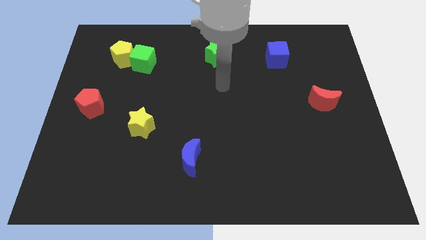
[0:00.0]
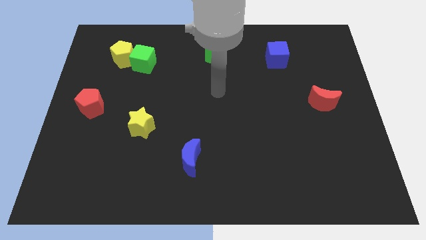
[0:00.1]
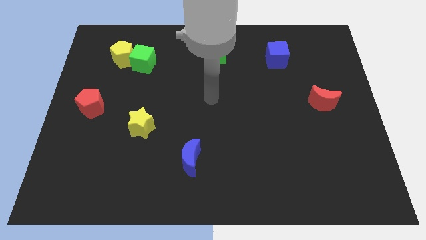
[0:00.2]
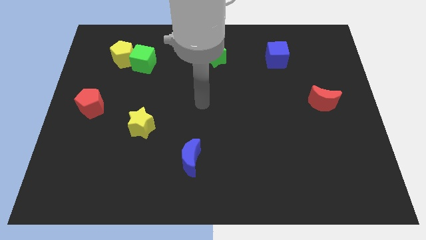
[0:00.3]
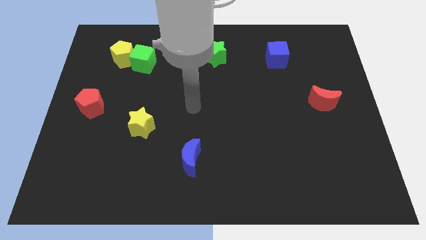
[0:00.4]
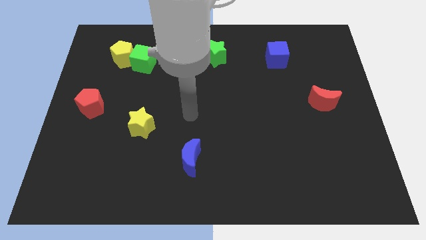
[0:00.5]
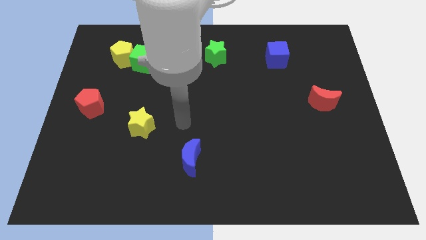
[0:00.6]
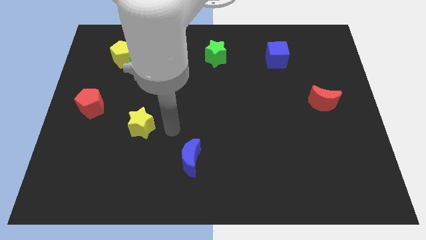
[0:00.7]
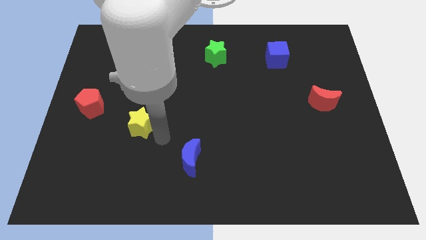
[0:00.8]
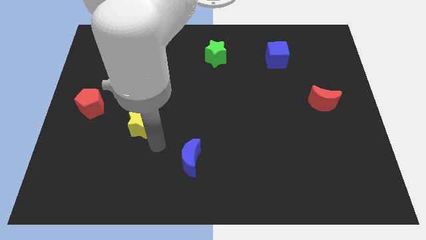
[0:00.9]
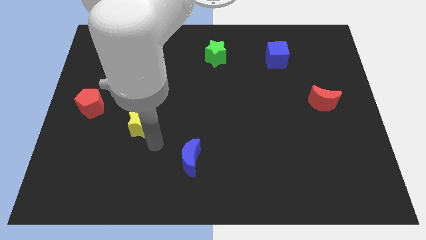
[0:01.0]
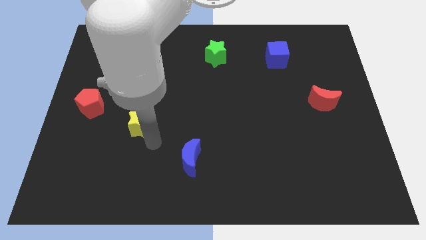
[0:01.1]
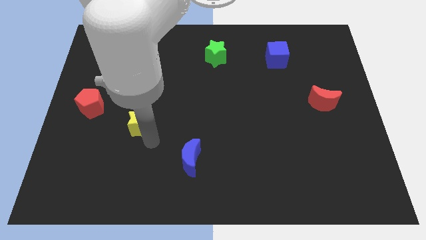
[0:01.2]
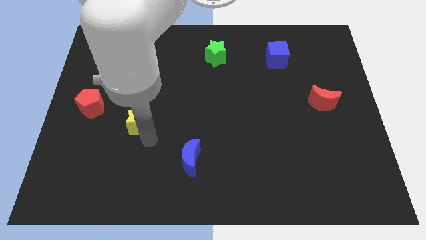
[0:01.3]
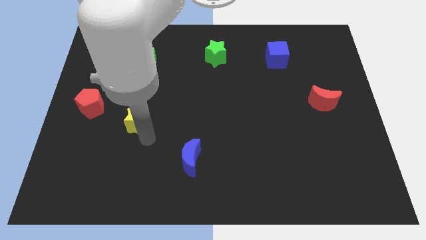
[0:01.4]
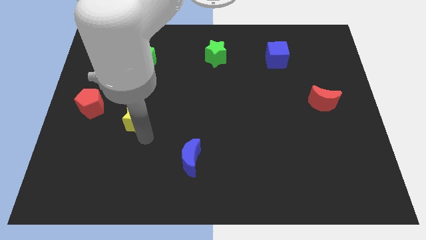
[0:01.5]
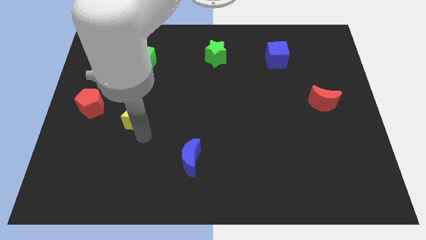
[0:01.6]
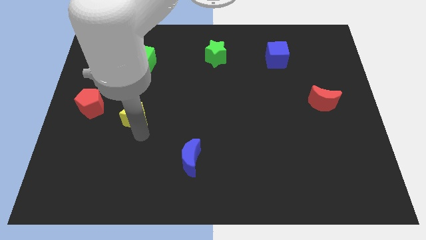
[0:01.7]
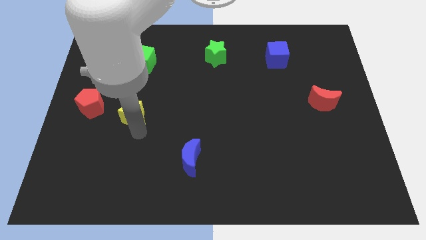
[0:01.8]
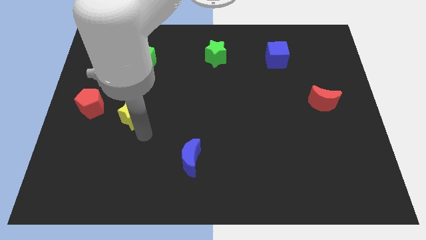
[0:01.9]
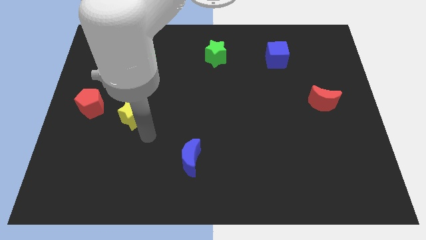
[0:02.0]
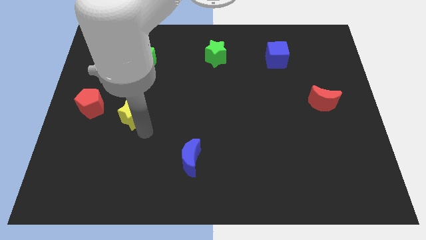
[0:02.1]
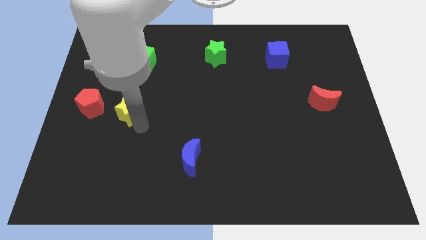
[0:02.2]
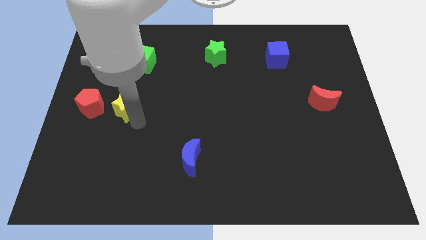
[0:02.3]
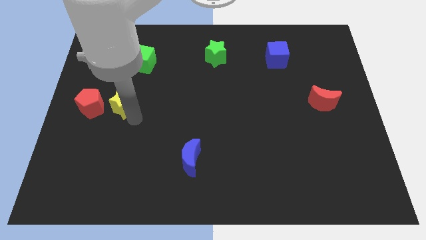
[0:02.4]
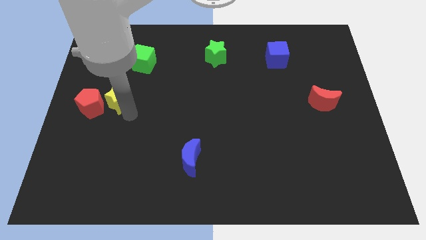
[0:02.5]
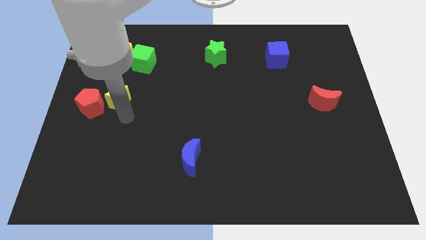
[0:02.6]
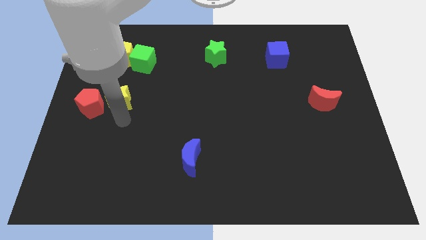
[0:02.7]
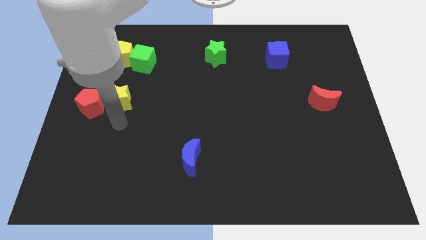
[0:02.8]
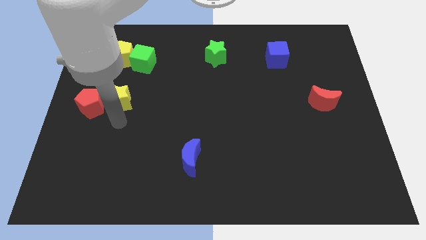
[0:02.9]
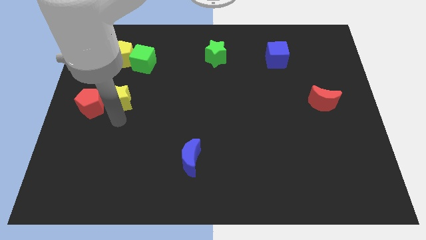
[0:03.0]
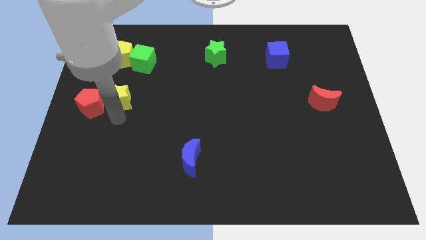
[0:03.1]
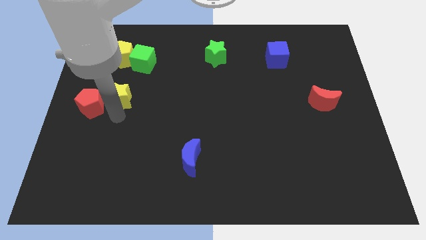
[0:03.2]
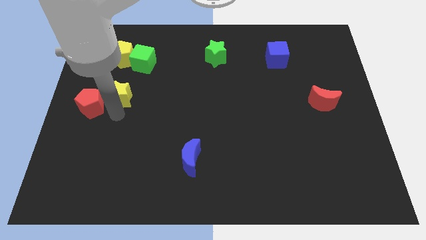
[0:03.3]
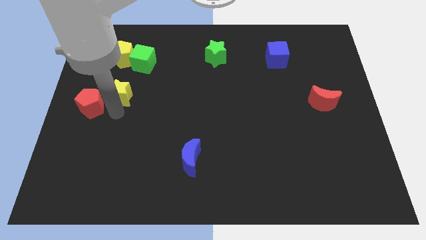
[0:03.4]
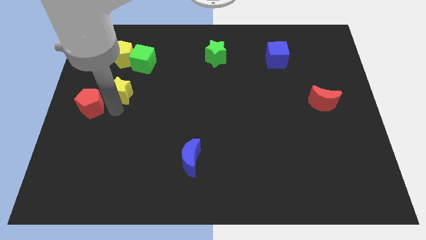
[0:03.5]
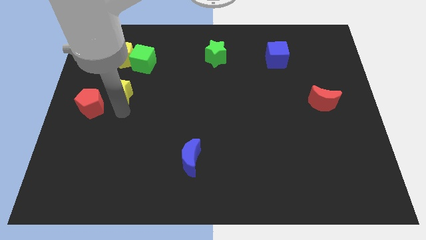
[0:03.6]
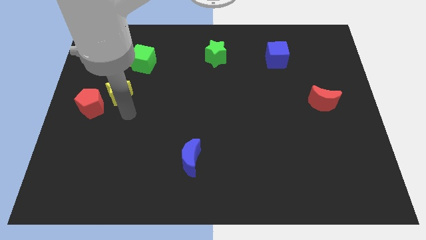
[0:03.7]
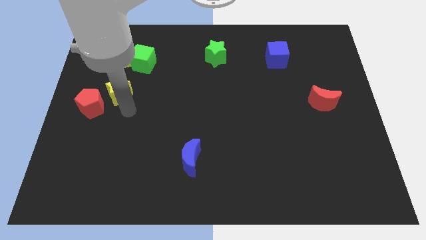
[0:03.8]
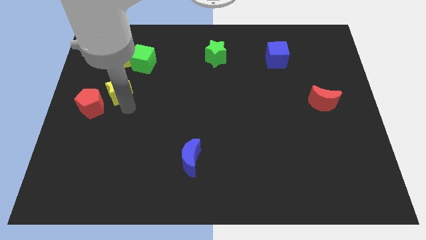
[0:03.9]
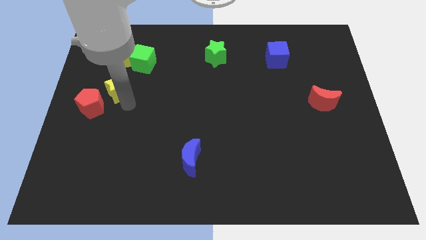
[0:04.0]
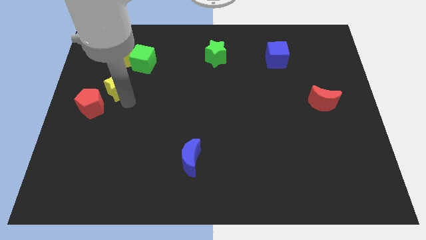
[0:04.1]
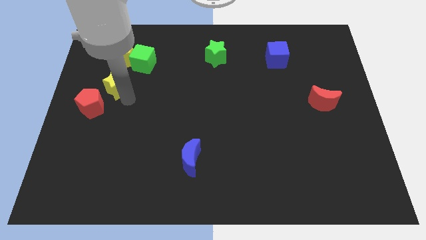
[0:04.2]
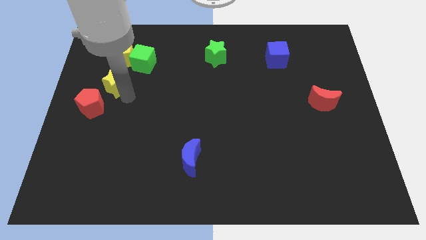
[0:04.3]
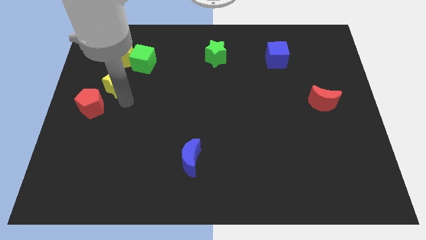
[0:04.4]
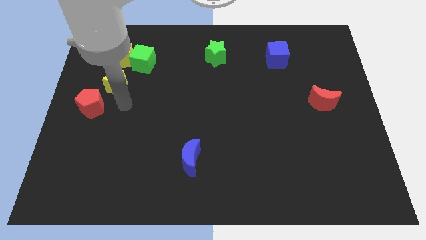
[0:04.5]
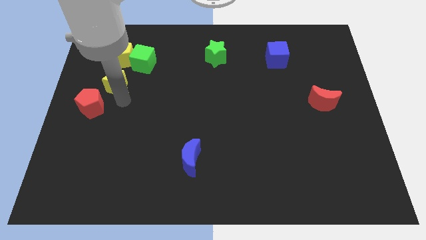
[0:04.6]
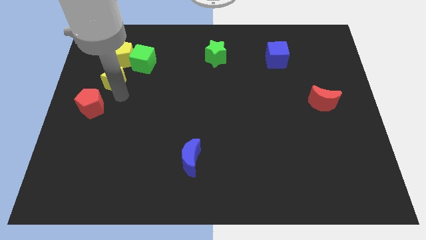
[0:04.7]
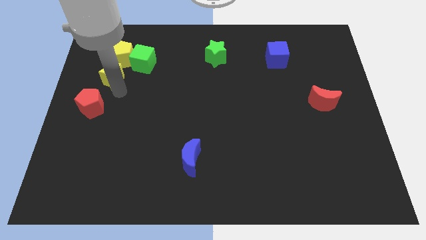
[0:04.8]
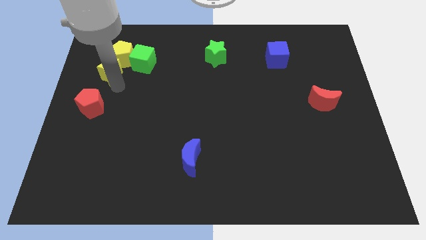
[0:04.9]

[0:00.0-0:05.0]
put the yellow star to the left of the green cube

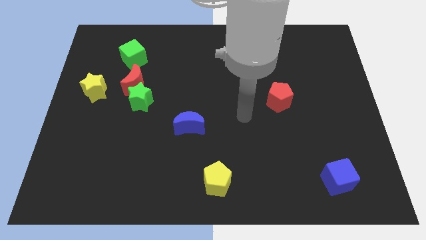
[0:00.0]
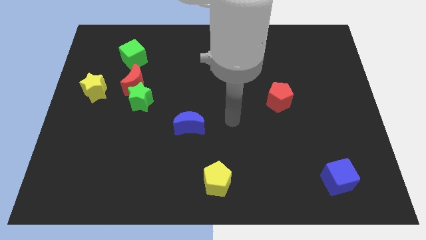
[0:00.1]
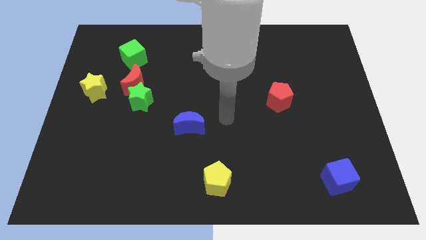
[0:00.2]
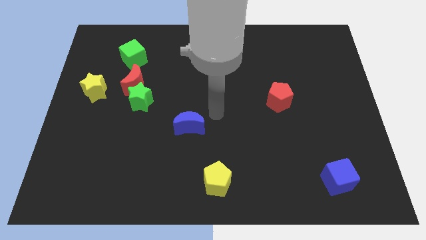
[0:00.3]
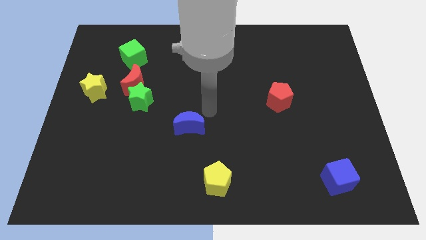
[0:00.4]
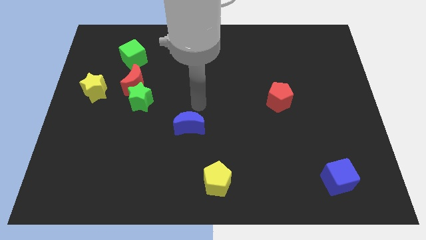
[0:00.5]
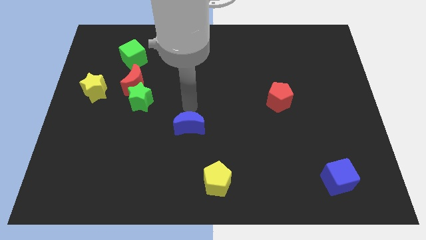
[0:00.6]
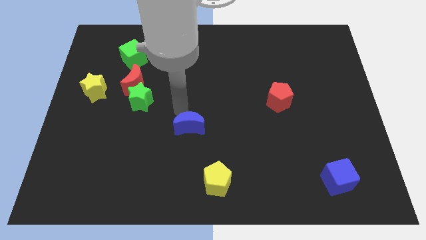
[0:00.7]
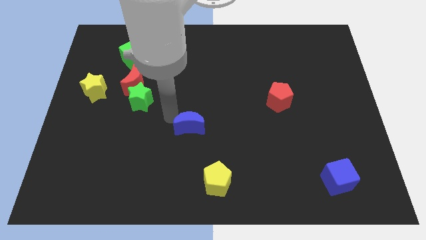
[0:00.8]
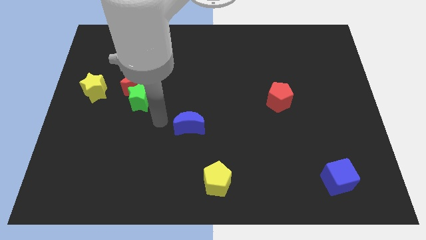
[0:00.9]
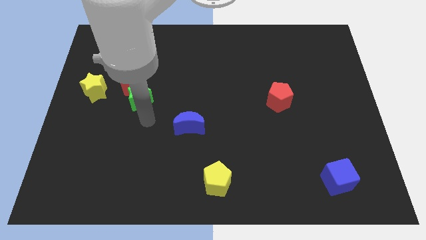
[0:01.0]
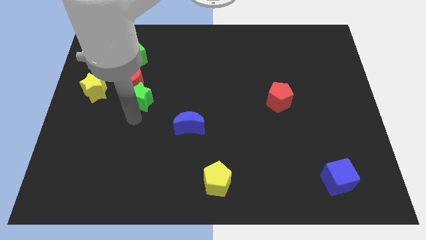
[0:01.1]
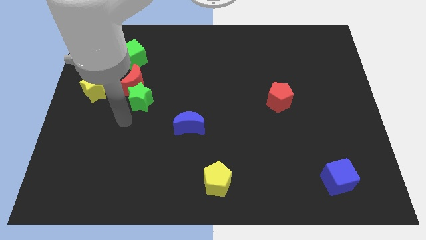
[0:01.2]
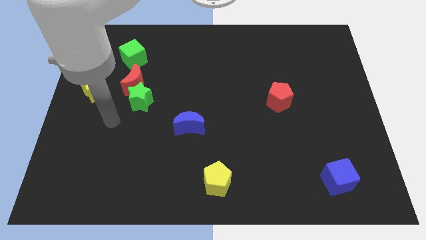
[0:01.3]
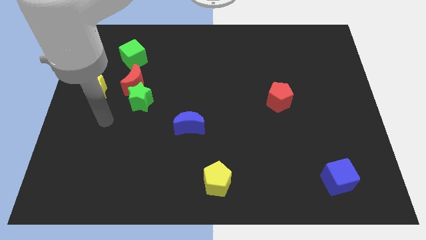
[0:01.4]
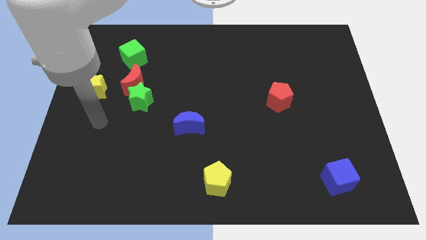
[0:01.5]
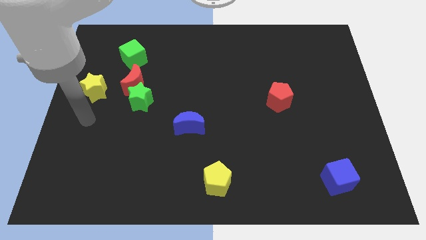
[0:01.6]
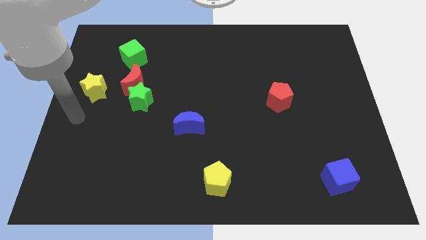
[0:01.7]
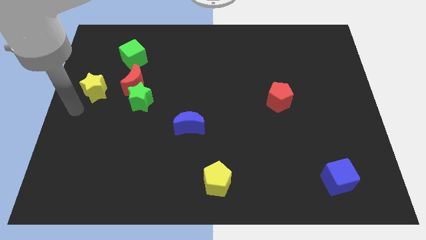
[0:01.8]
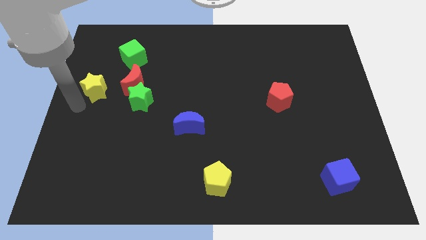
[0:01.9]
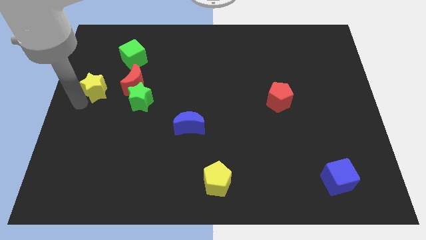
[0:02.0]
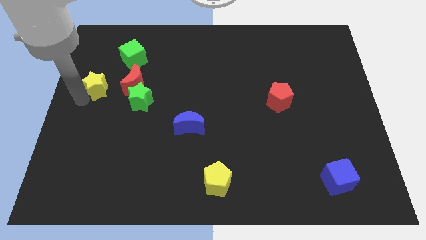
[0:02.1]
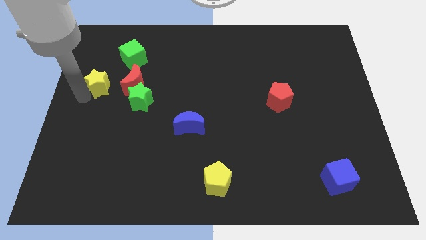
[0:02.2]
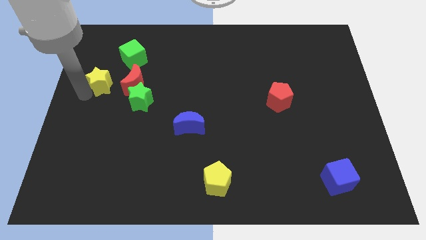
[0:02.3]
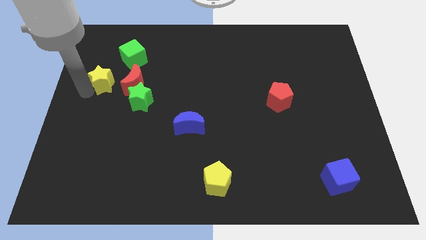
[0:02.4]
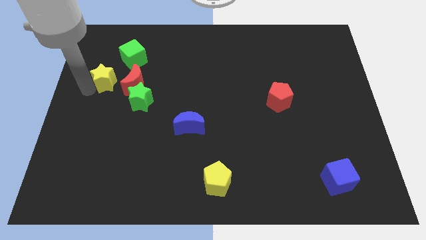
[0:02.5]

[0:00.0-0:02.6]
push the yellow star to the top left of the red moon

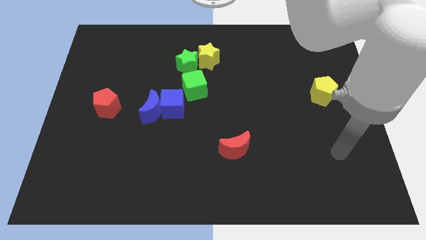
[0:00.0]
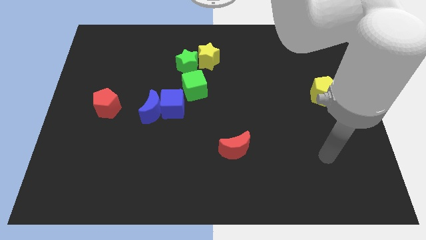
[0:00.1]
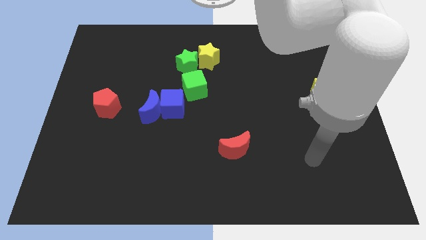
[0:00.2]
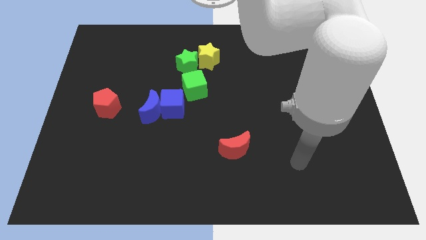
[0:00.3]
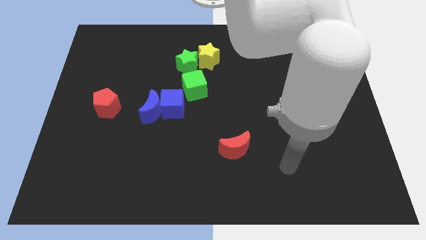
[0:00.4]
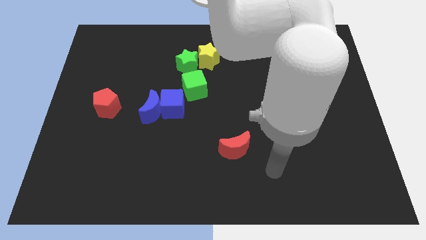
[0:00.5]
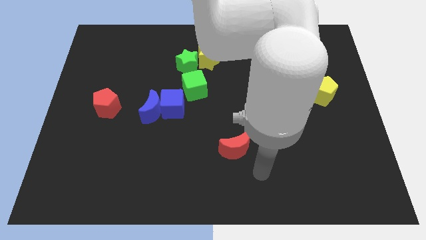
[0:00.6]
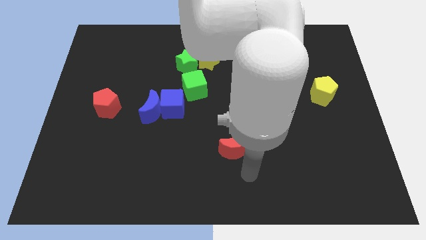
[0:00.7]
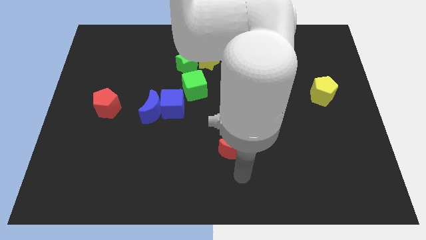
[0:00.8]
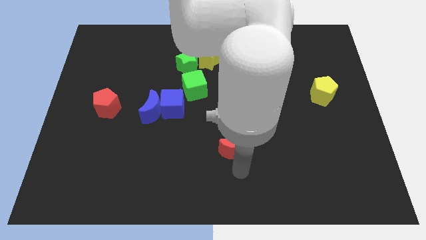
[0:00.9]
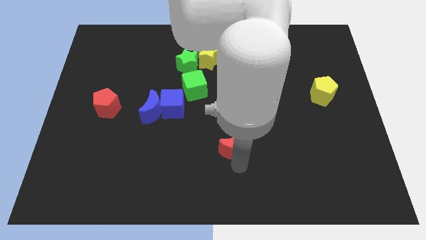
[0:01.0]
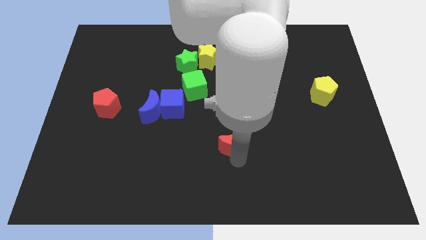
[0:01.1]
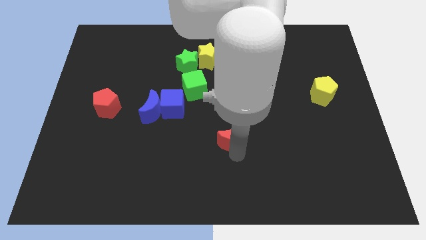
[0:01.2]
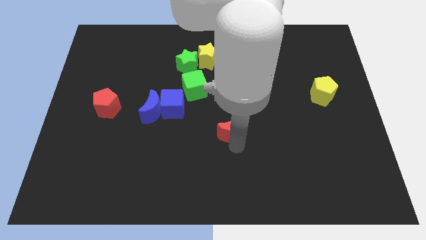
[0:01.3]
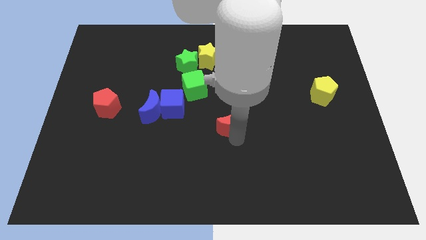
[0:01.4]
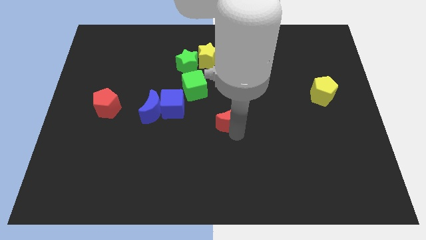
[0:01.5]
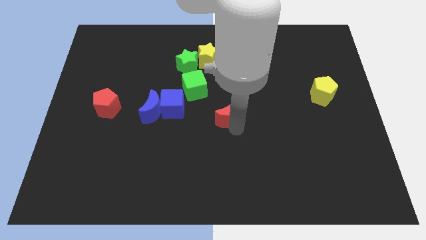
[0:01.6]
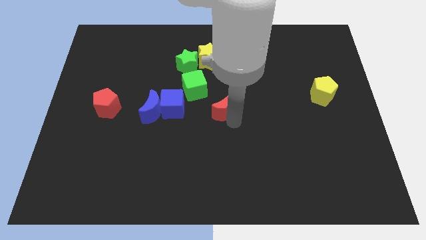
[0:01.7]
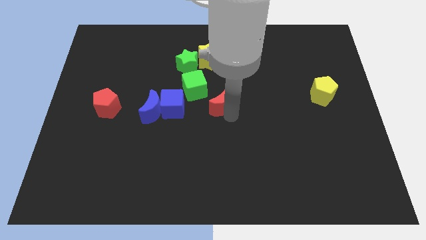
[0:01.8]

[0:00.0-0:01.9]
slide the red moon below the yellow star
